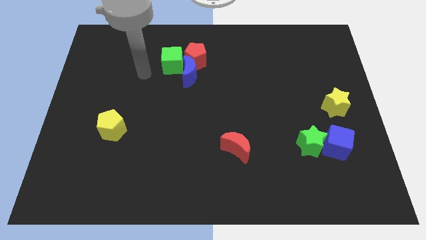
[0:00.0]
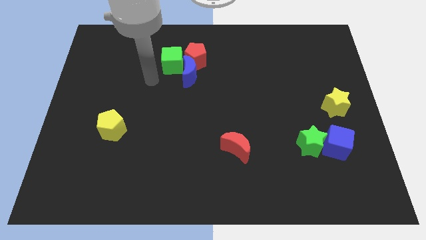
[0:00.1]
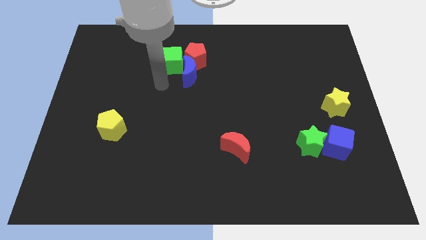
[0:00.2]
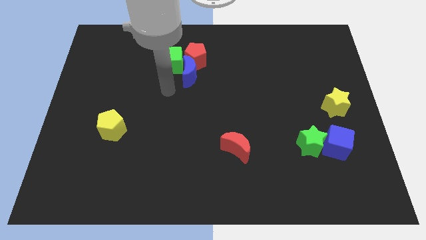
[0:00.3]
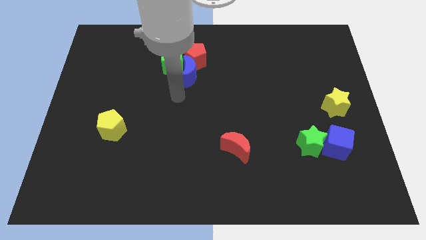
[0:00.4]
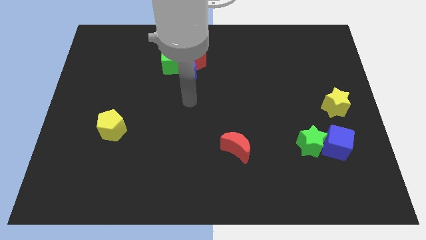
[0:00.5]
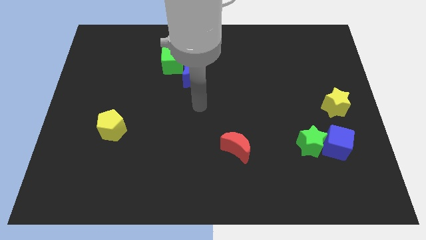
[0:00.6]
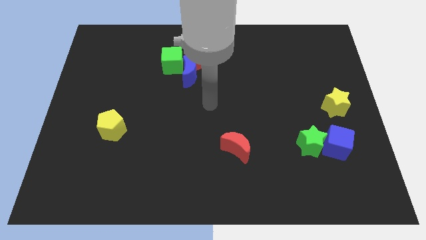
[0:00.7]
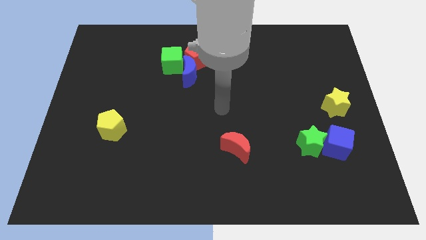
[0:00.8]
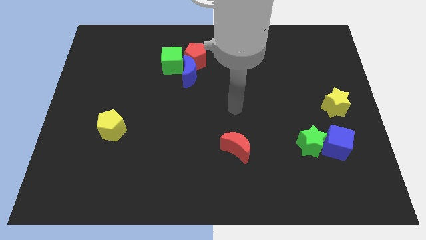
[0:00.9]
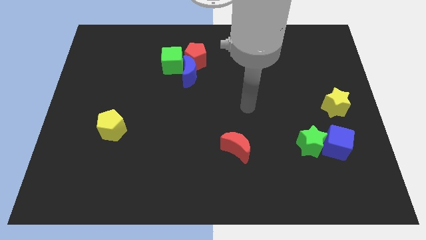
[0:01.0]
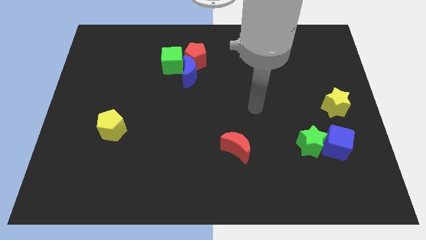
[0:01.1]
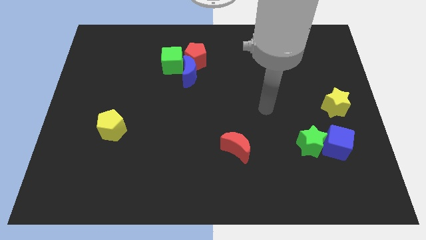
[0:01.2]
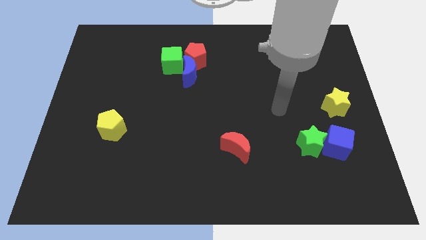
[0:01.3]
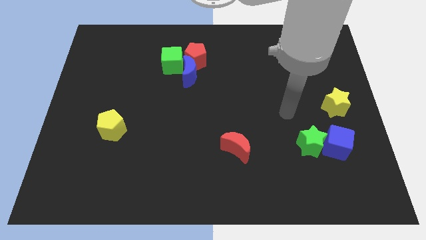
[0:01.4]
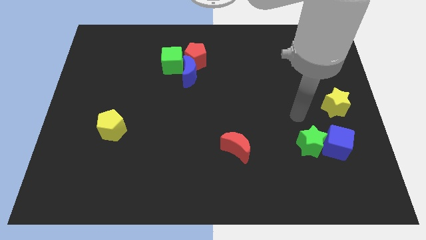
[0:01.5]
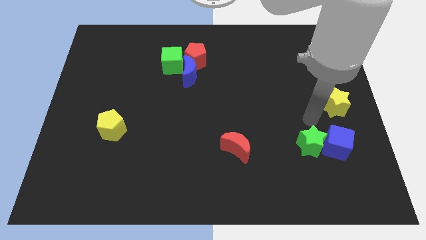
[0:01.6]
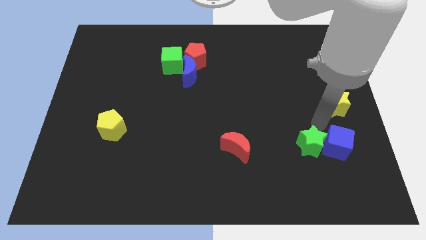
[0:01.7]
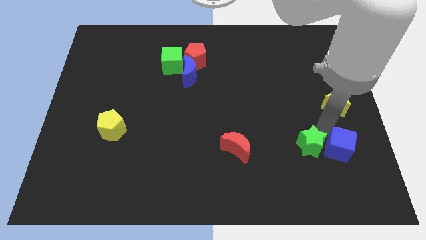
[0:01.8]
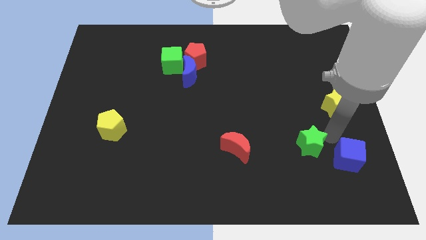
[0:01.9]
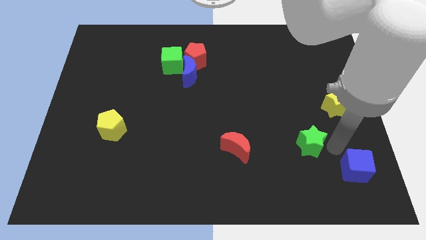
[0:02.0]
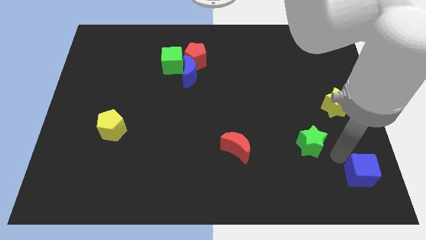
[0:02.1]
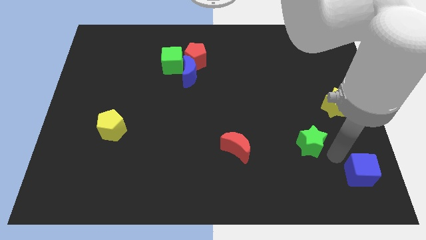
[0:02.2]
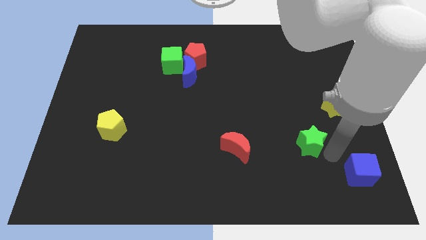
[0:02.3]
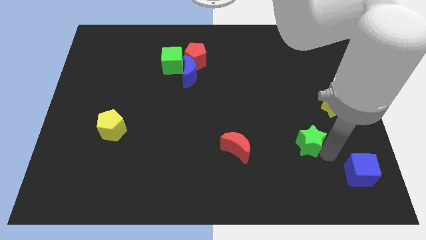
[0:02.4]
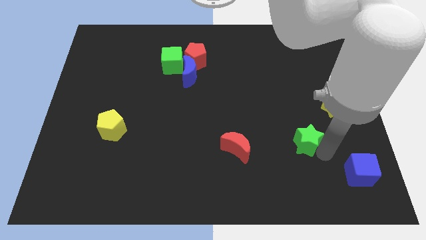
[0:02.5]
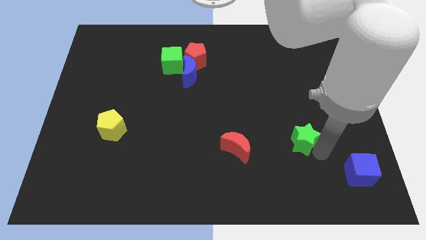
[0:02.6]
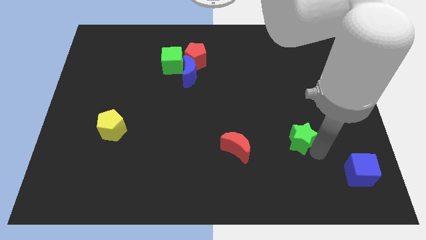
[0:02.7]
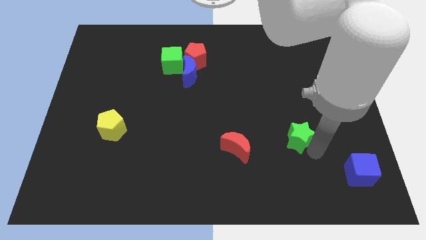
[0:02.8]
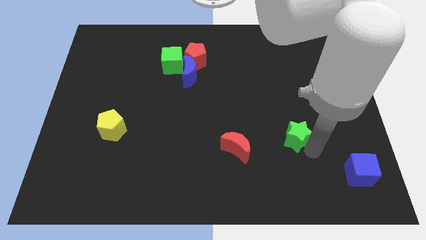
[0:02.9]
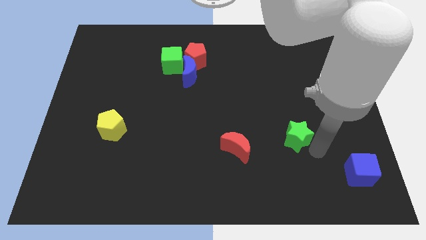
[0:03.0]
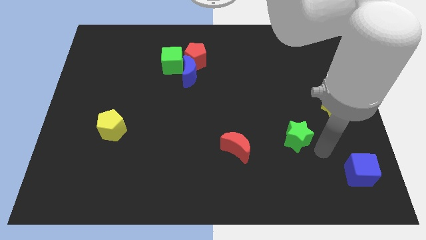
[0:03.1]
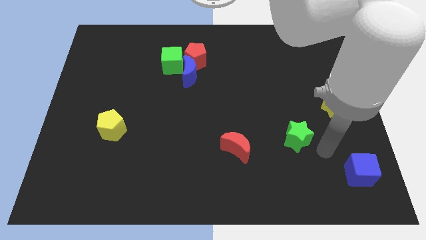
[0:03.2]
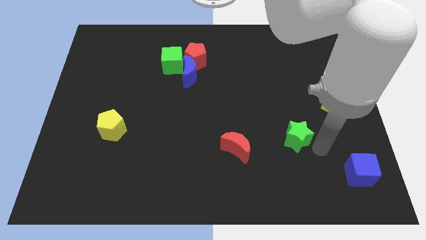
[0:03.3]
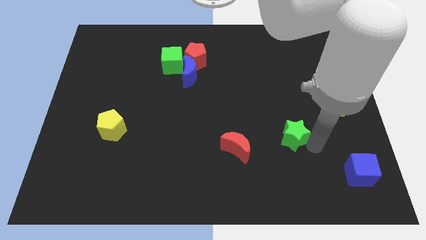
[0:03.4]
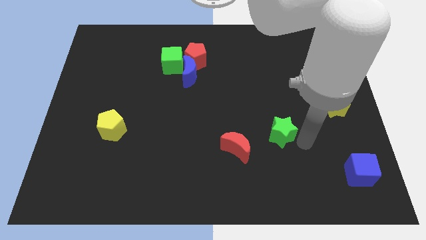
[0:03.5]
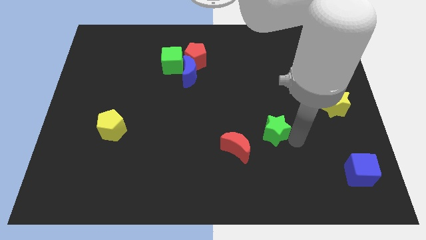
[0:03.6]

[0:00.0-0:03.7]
push the green star upwards and left diagonally slightly

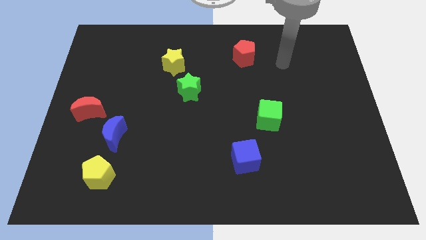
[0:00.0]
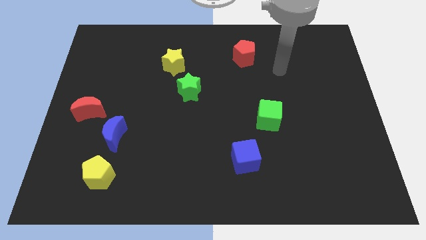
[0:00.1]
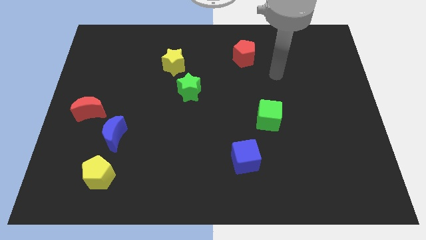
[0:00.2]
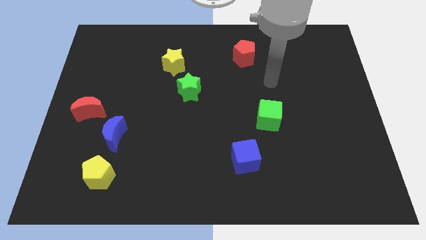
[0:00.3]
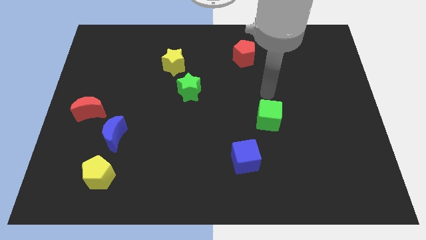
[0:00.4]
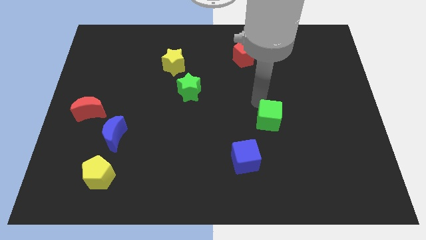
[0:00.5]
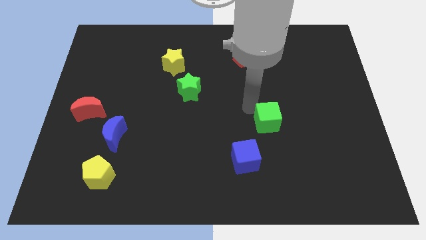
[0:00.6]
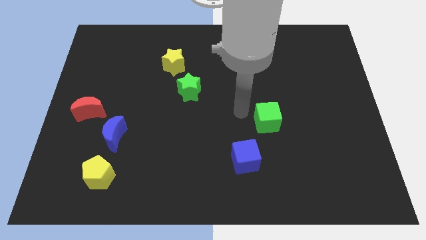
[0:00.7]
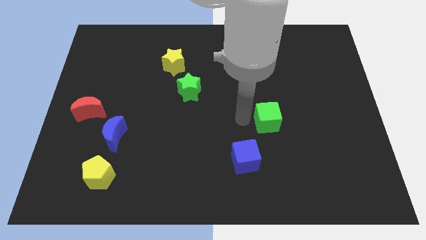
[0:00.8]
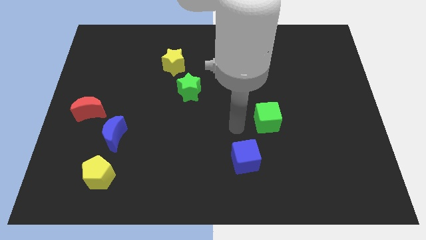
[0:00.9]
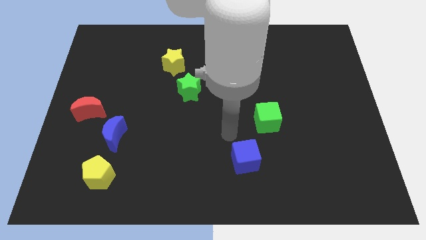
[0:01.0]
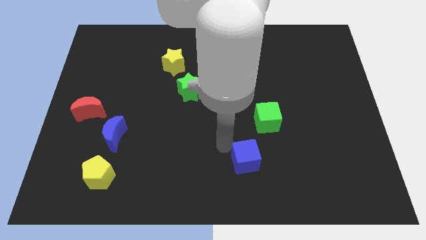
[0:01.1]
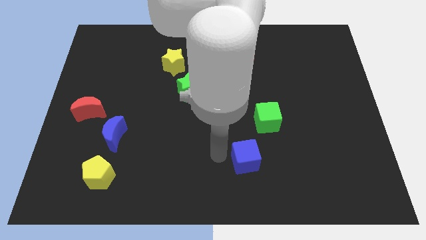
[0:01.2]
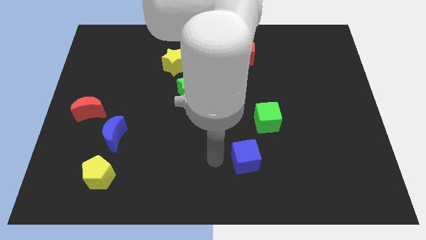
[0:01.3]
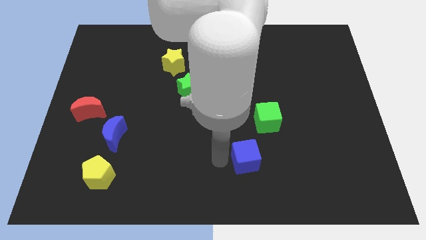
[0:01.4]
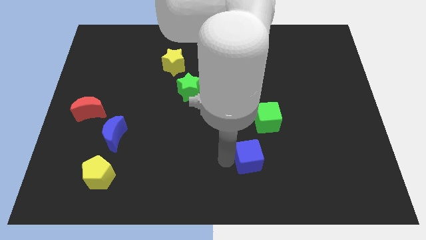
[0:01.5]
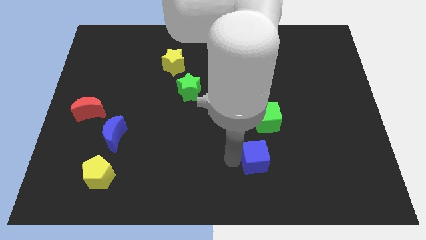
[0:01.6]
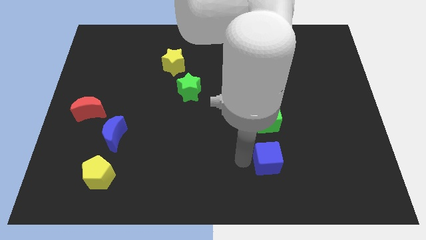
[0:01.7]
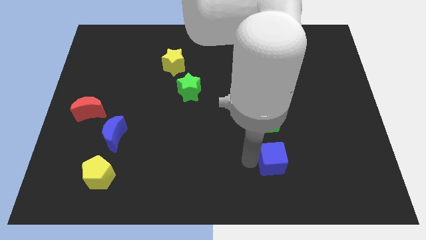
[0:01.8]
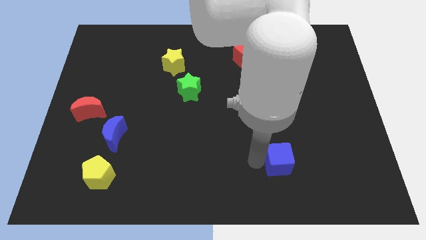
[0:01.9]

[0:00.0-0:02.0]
slide the blue cube right slightly

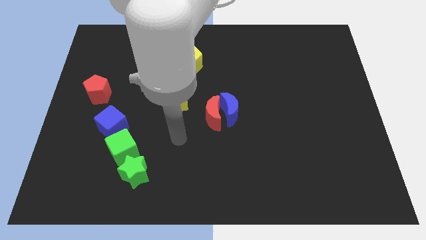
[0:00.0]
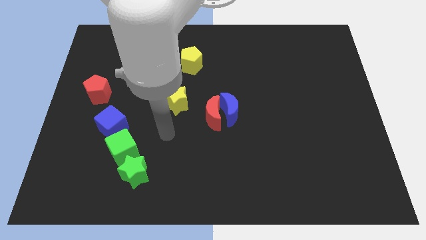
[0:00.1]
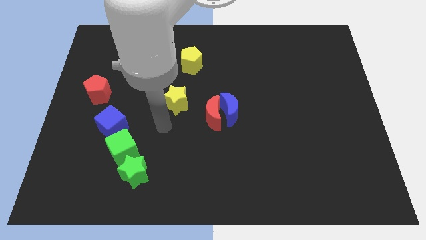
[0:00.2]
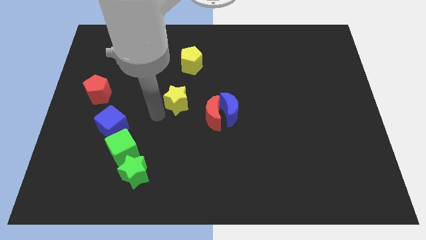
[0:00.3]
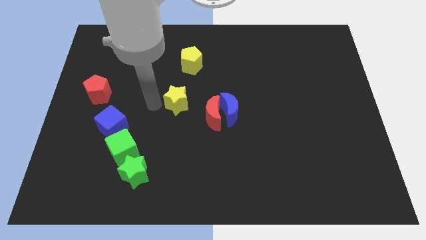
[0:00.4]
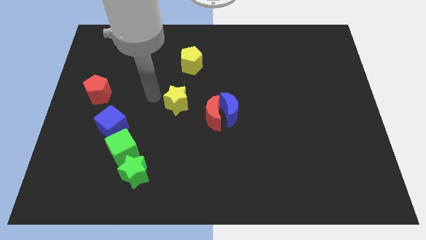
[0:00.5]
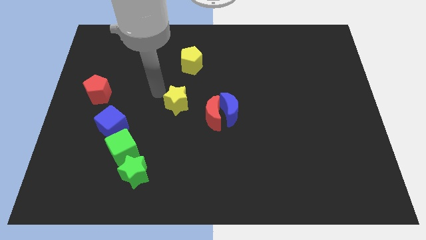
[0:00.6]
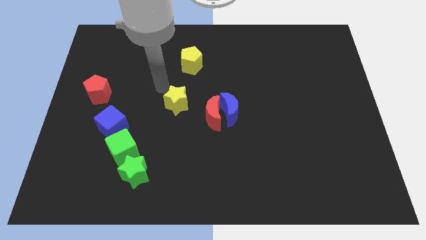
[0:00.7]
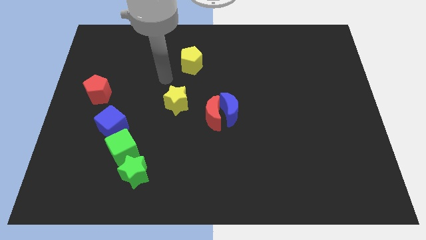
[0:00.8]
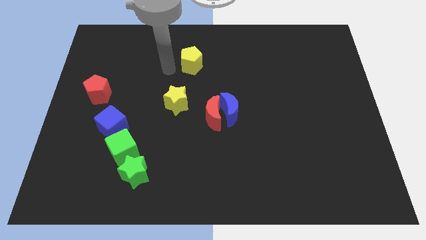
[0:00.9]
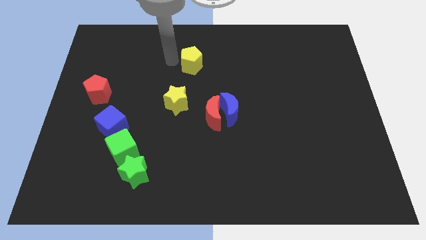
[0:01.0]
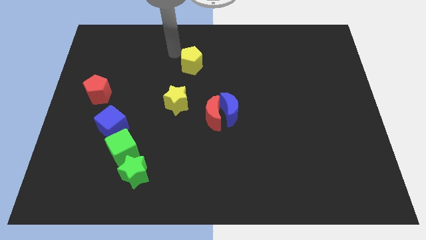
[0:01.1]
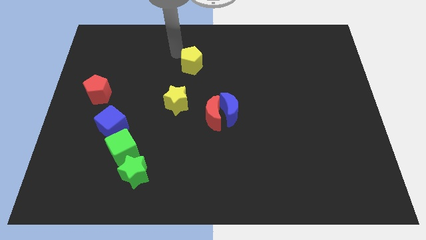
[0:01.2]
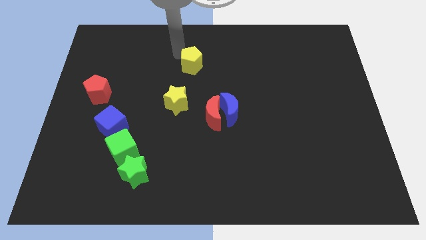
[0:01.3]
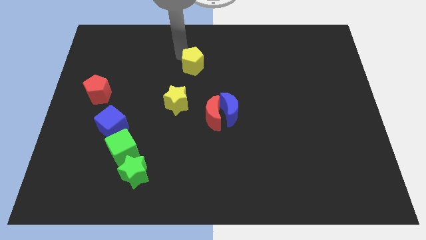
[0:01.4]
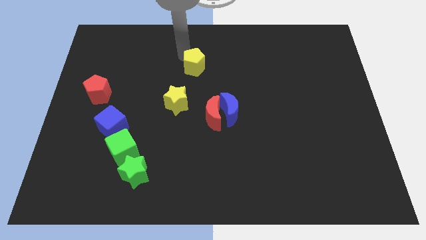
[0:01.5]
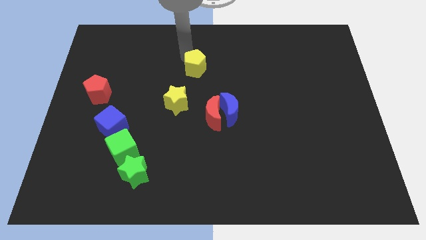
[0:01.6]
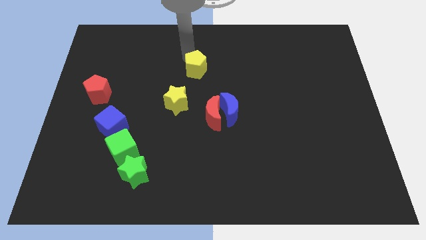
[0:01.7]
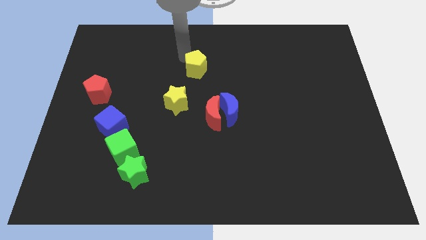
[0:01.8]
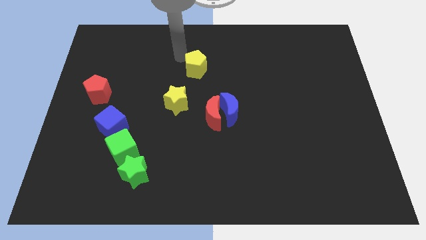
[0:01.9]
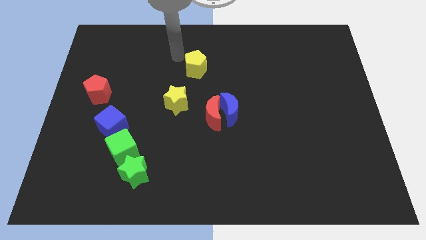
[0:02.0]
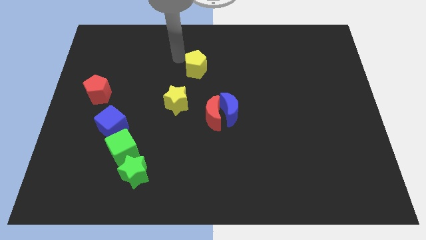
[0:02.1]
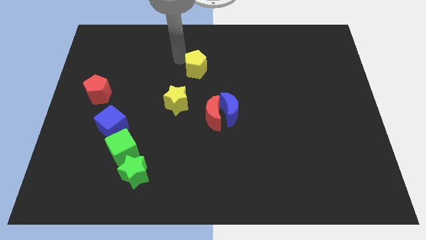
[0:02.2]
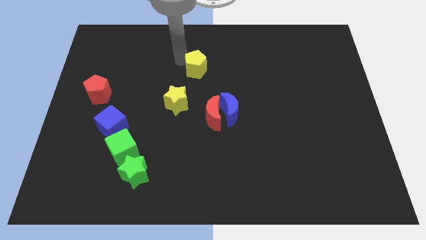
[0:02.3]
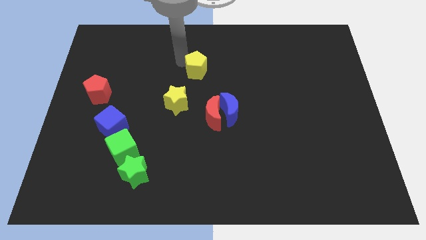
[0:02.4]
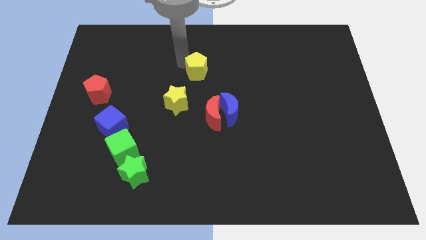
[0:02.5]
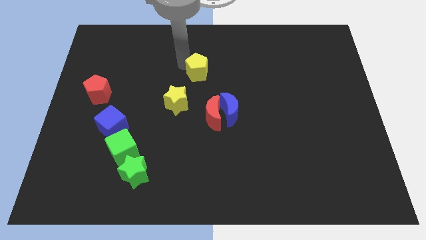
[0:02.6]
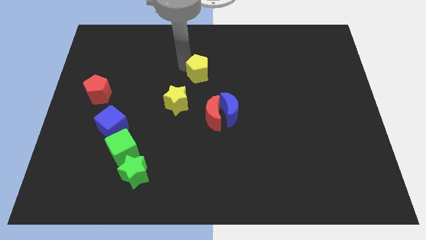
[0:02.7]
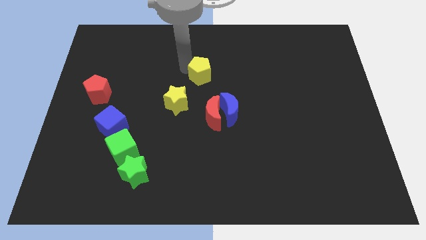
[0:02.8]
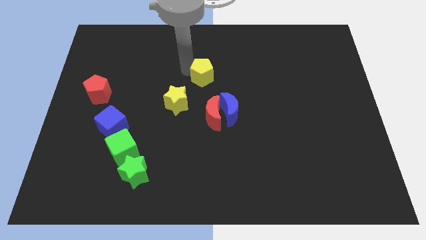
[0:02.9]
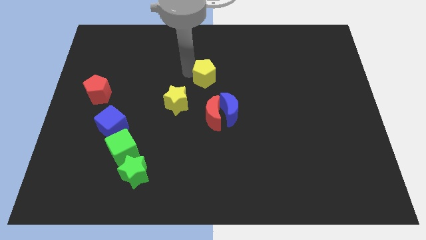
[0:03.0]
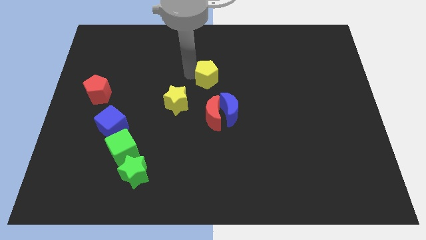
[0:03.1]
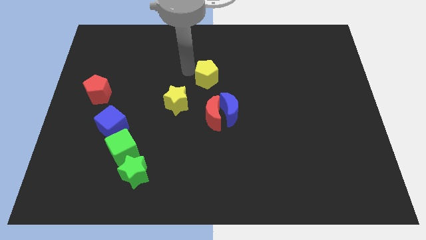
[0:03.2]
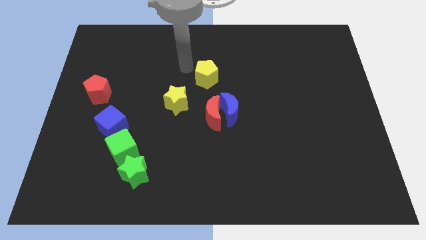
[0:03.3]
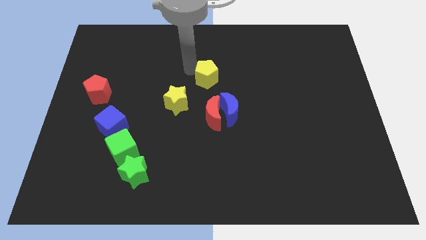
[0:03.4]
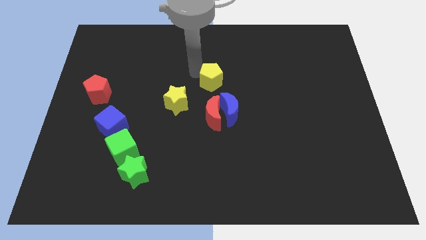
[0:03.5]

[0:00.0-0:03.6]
slightly move the yellow pentagon downwards and then to the right
